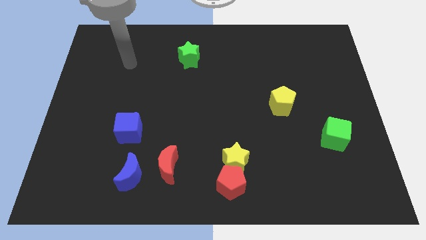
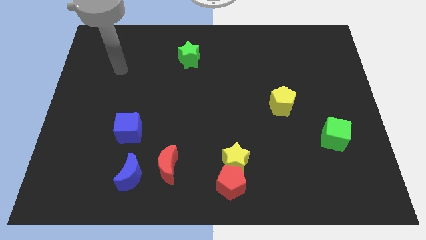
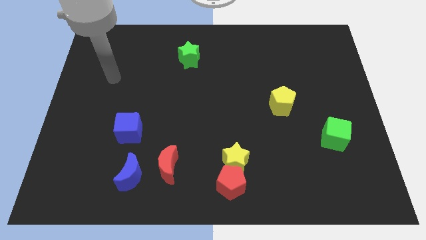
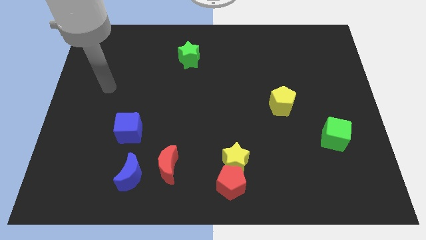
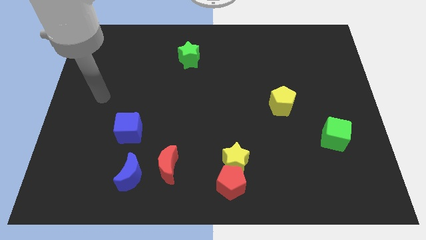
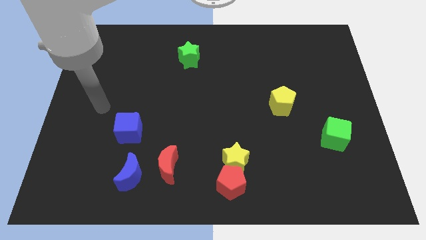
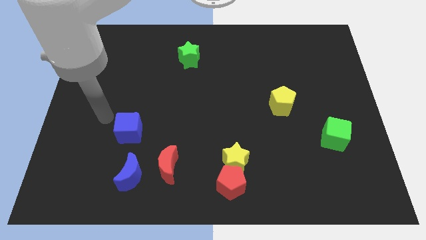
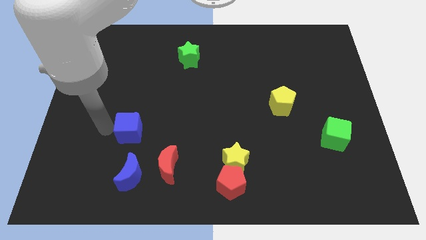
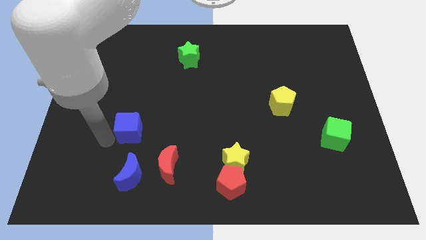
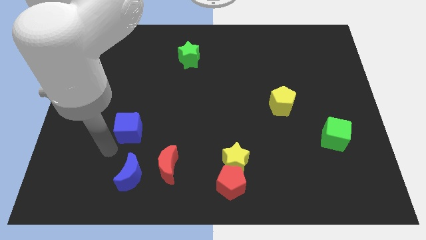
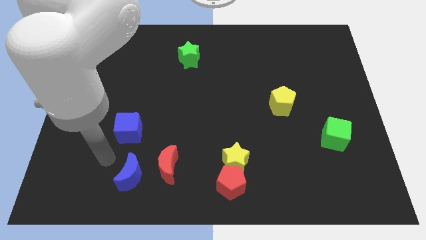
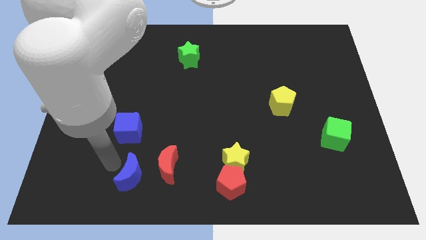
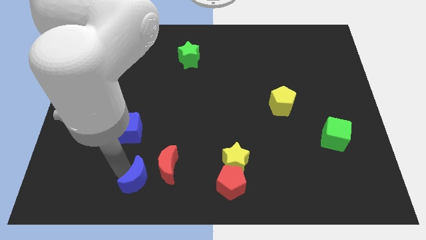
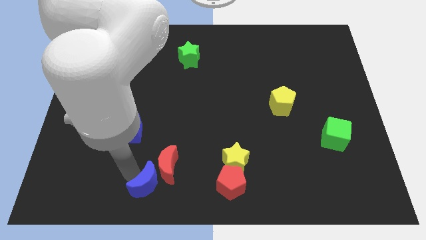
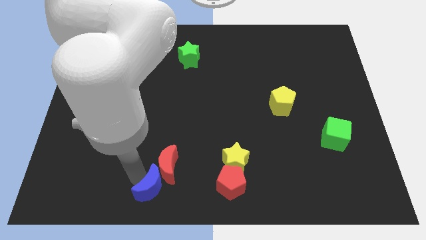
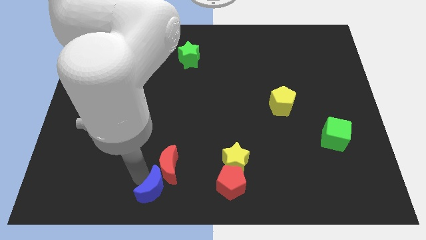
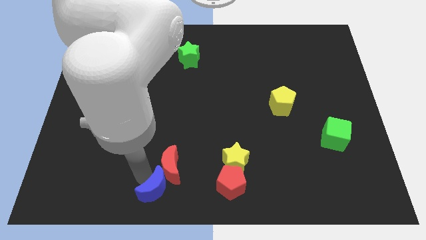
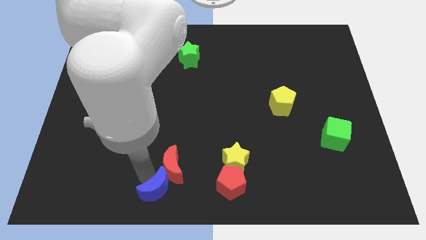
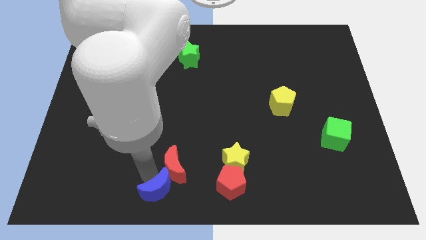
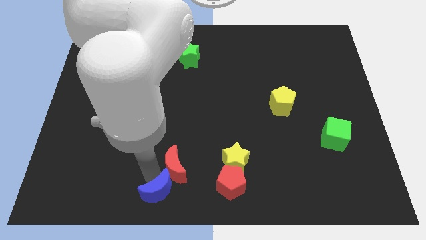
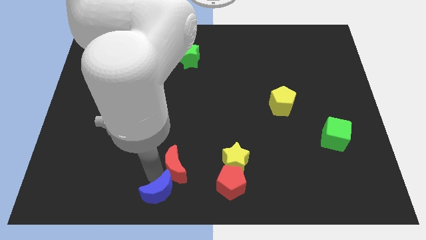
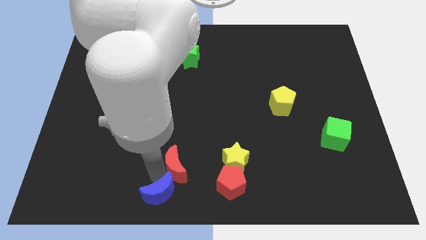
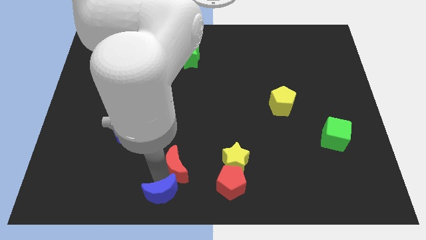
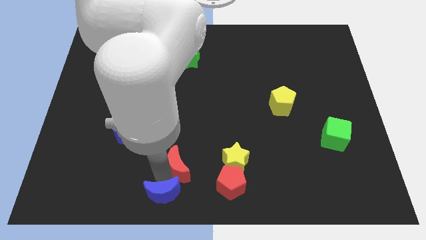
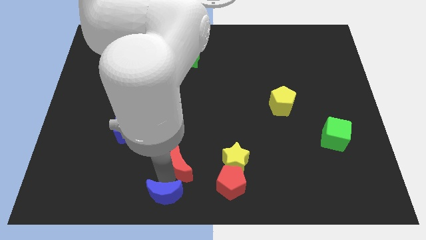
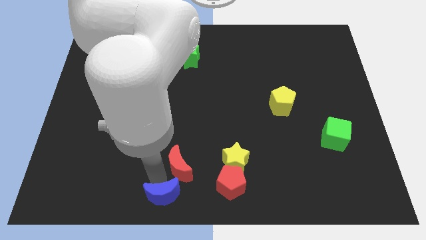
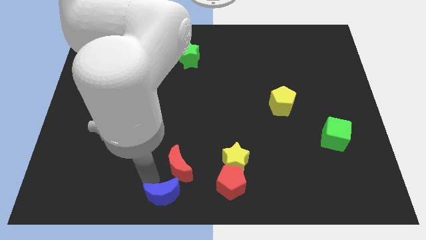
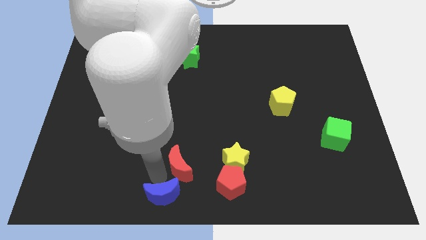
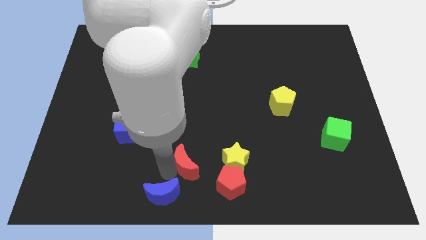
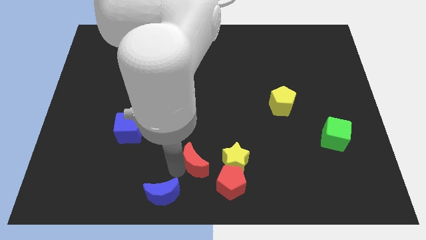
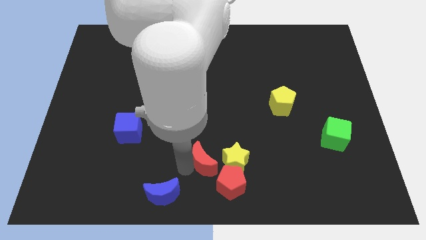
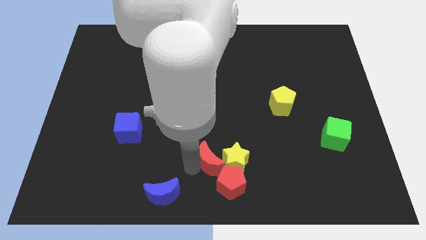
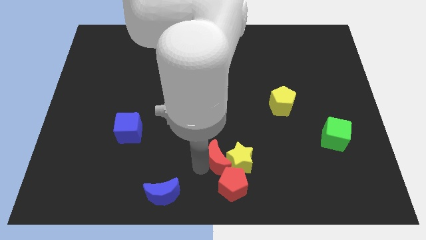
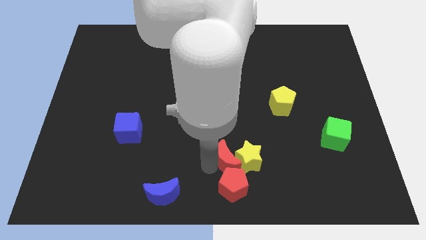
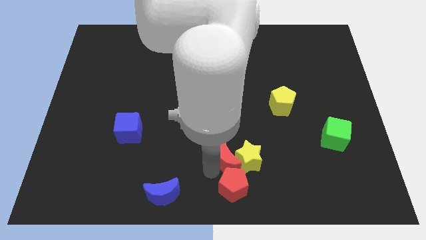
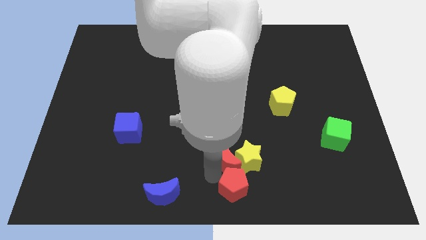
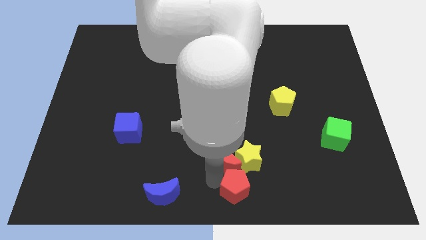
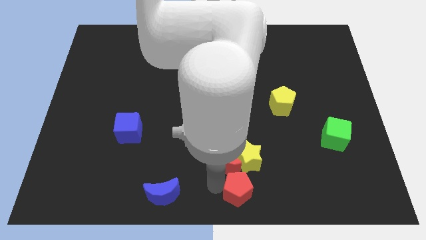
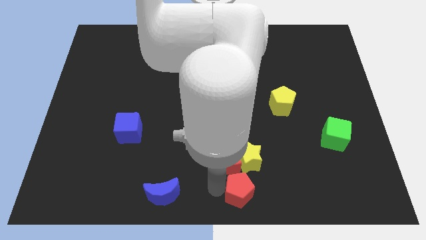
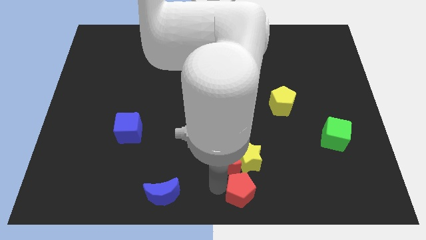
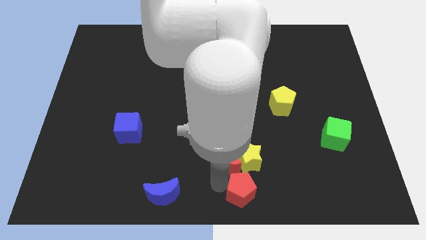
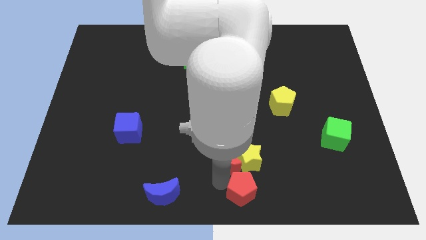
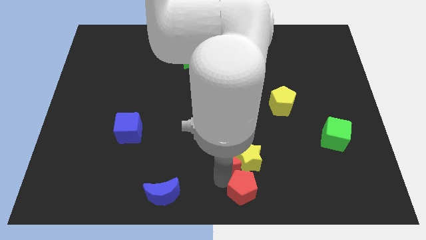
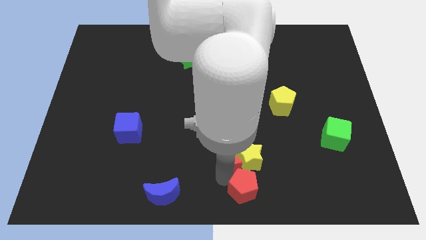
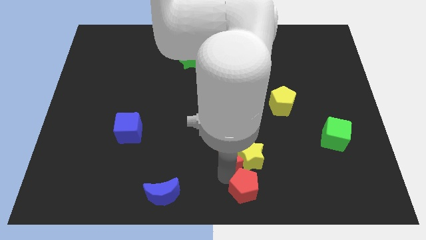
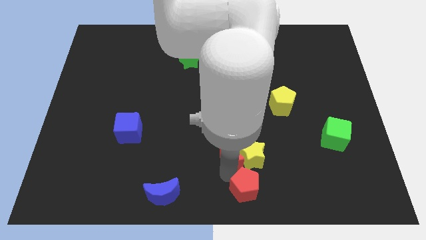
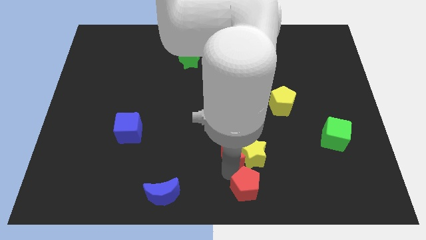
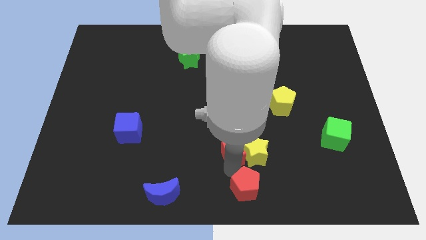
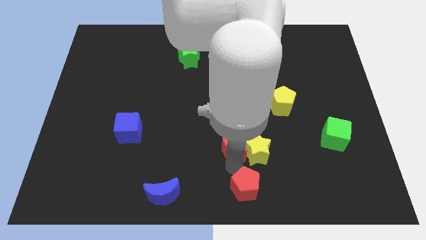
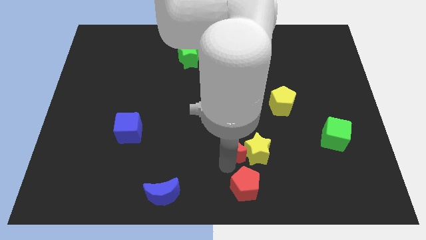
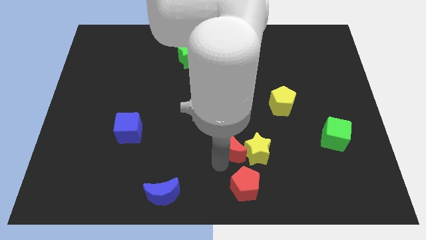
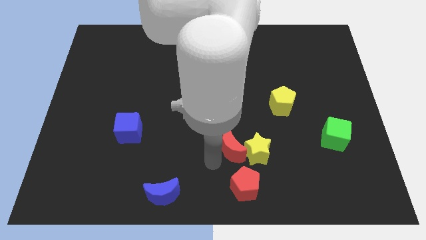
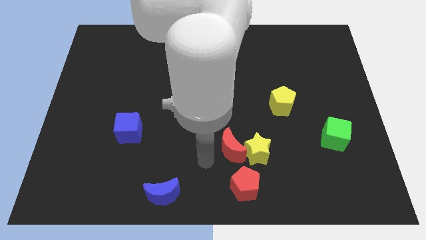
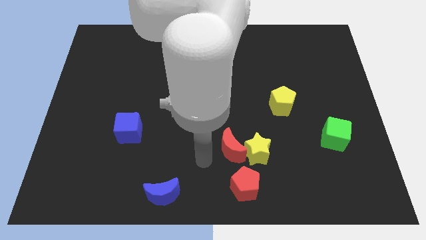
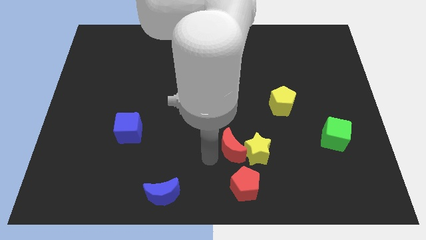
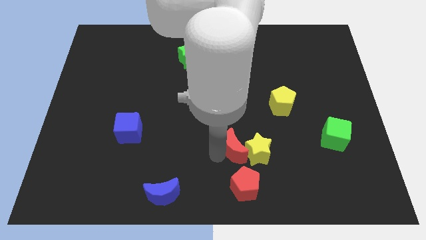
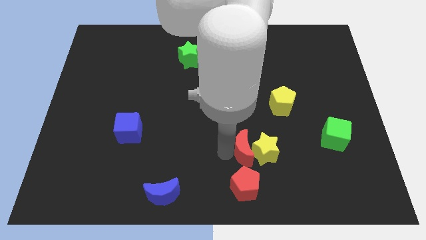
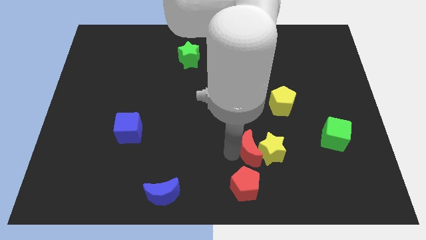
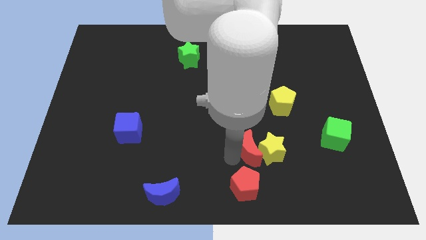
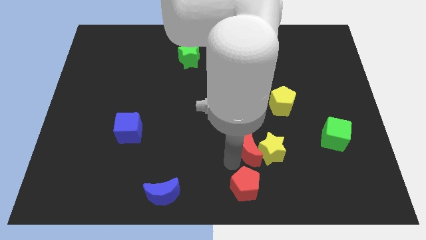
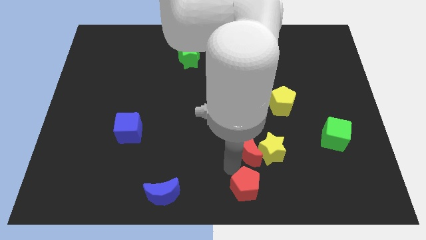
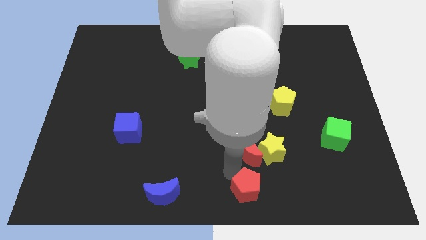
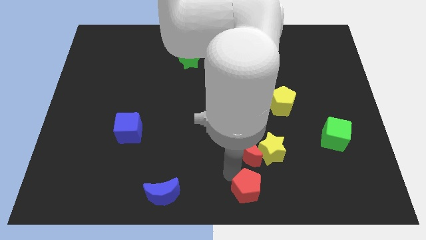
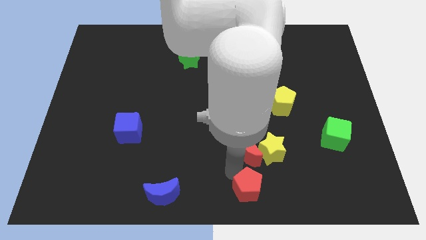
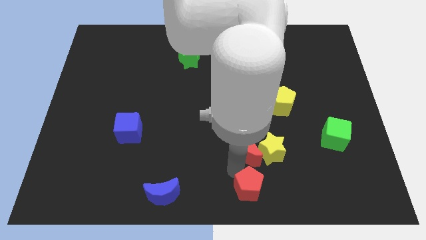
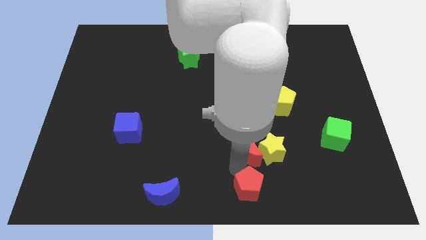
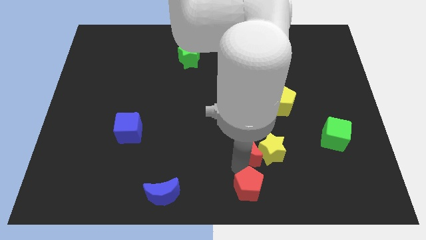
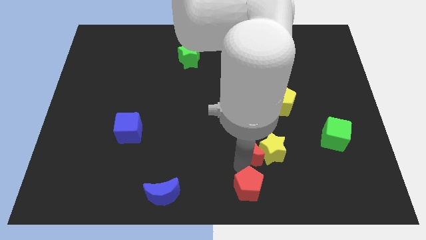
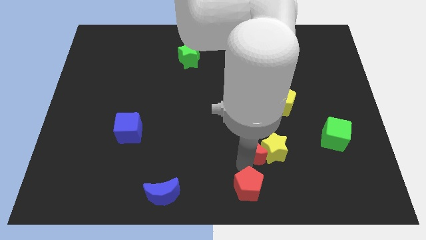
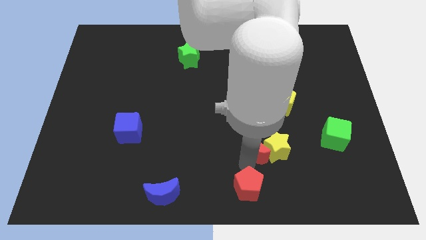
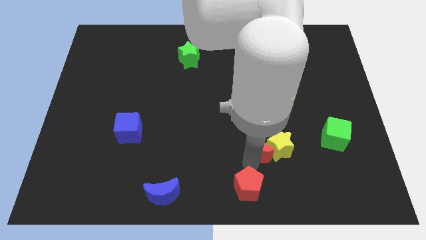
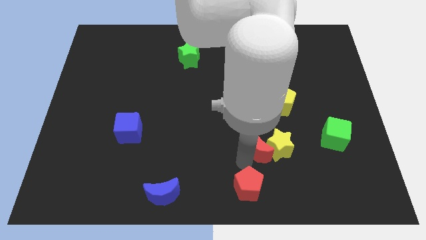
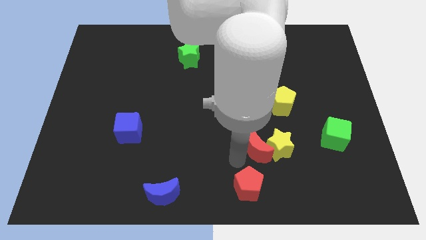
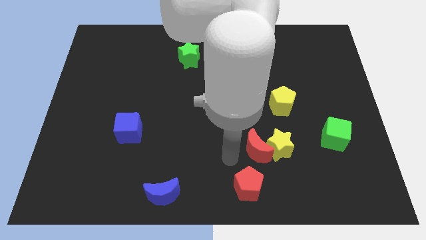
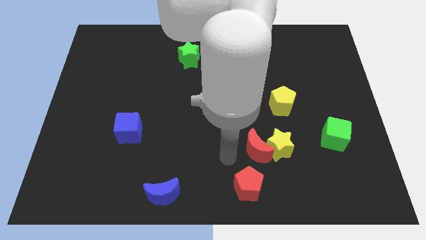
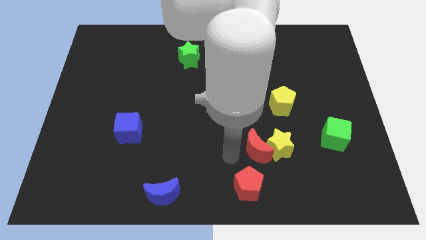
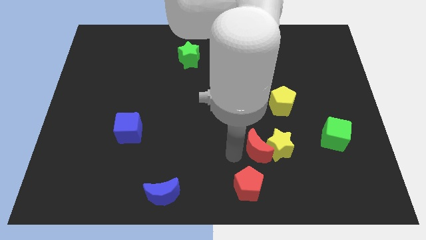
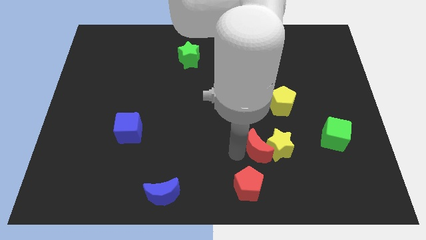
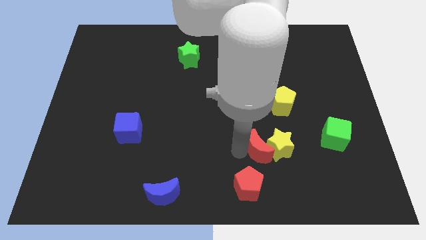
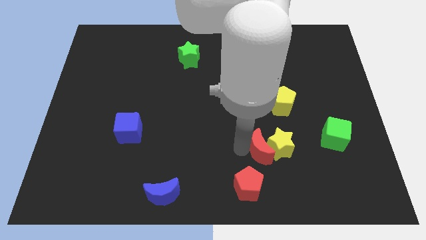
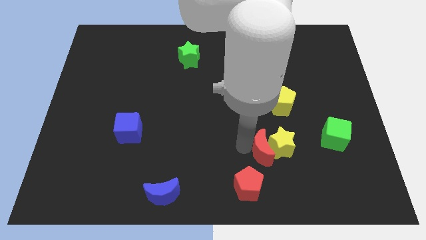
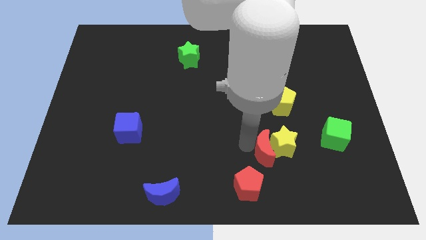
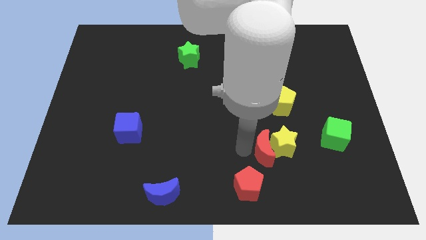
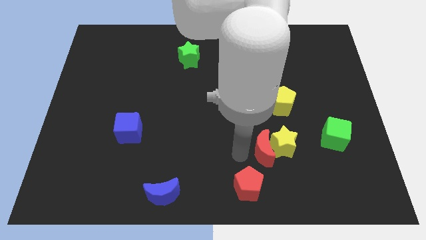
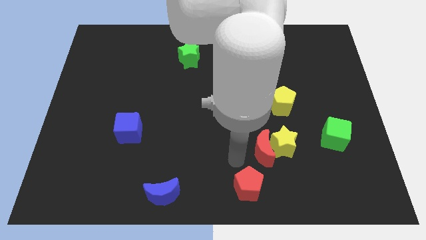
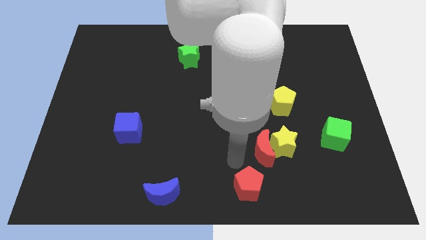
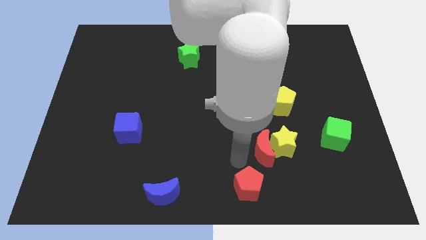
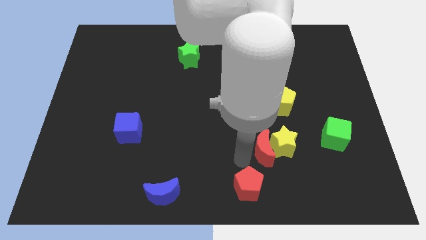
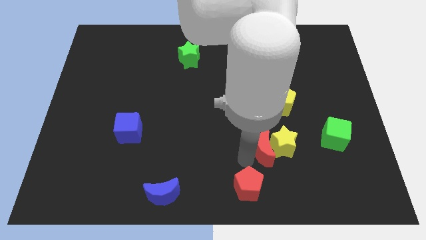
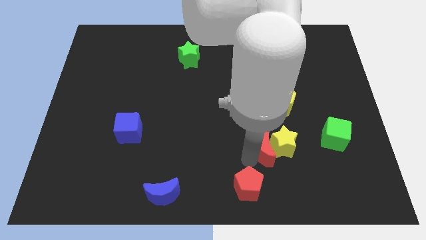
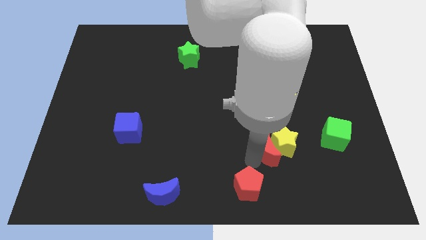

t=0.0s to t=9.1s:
slide the red moon to the bottom of the yellow pentagon
